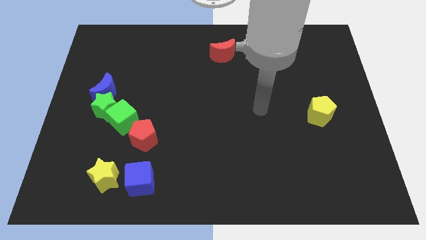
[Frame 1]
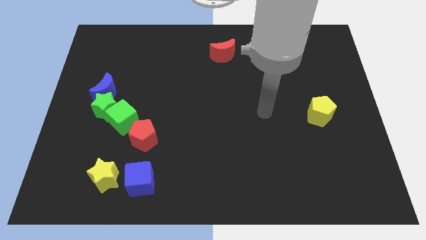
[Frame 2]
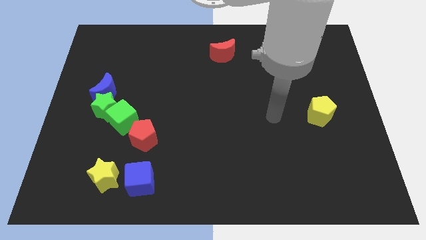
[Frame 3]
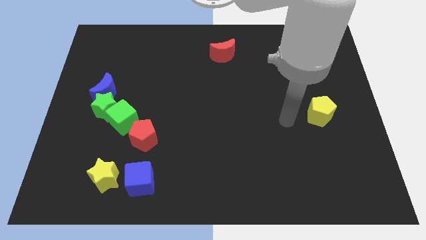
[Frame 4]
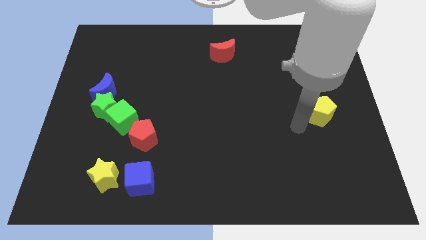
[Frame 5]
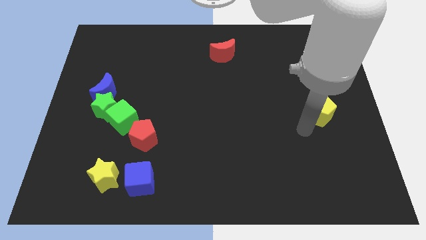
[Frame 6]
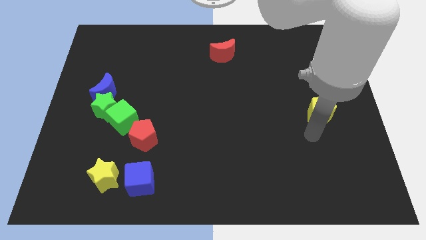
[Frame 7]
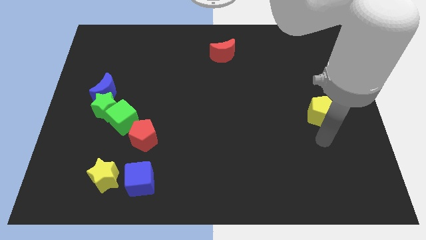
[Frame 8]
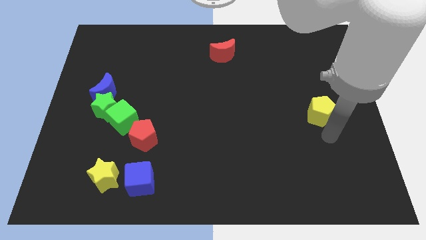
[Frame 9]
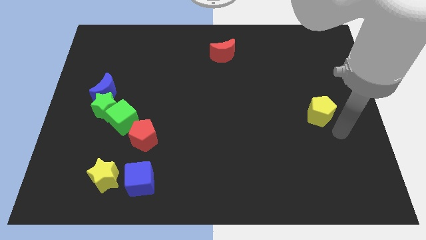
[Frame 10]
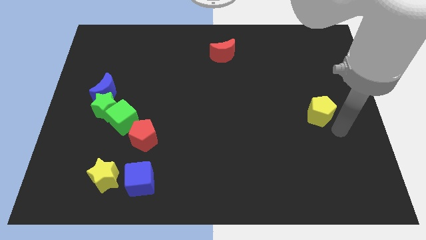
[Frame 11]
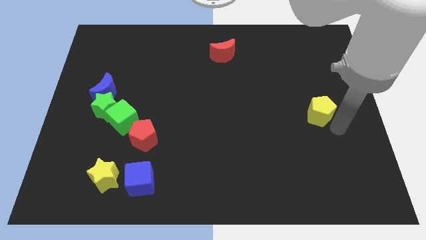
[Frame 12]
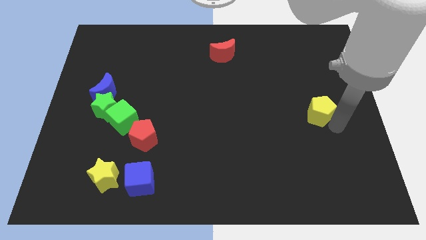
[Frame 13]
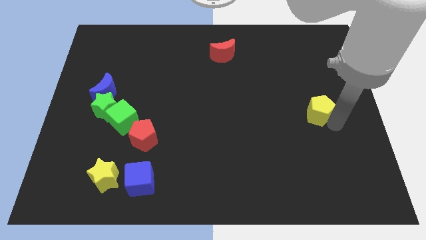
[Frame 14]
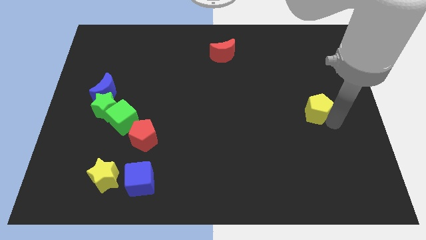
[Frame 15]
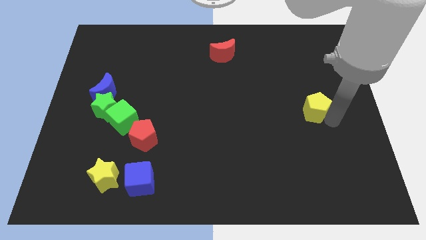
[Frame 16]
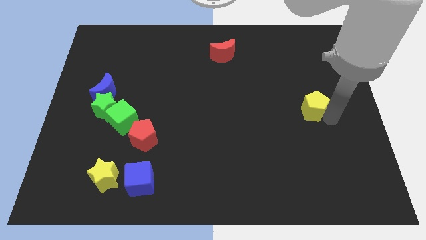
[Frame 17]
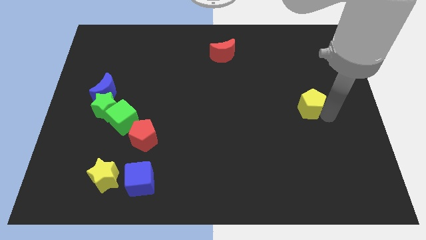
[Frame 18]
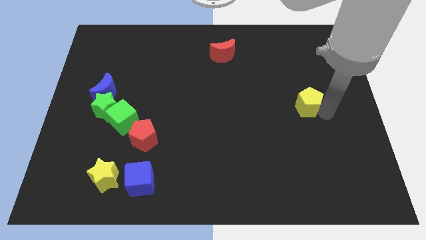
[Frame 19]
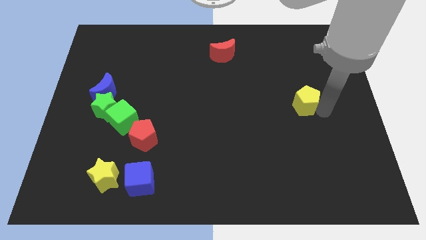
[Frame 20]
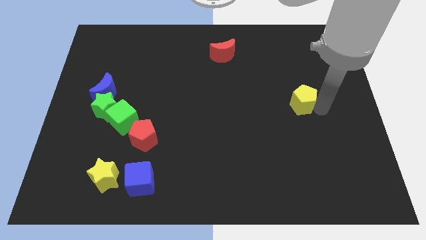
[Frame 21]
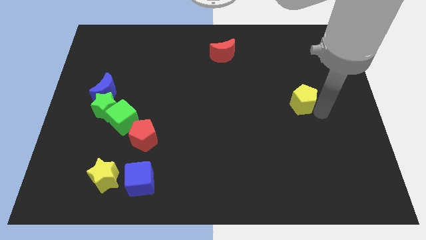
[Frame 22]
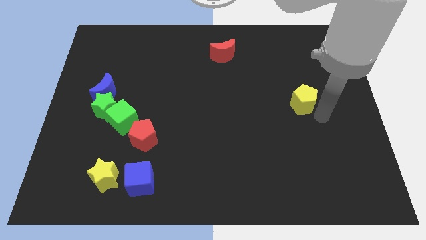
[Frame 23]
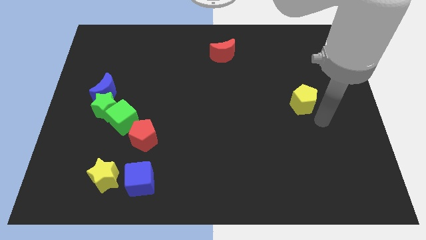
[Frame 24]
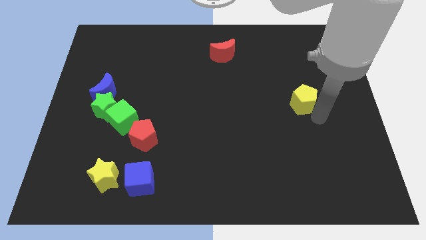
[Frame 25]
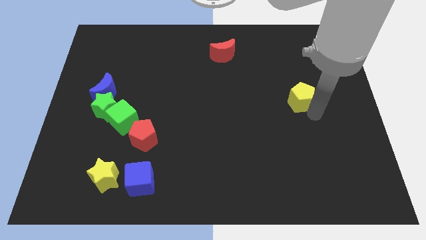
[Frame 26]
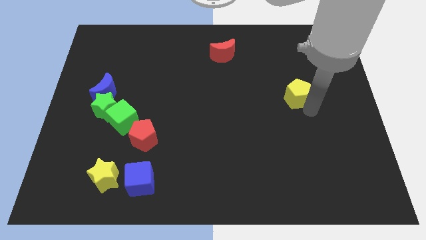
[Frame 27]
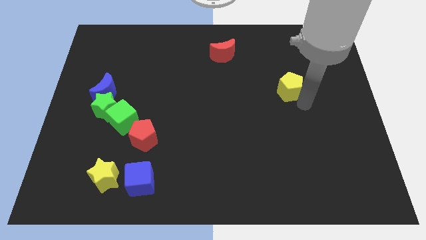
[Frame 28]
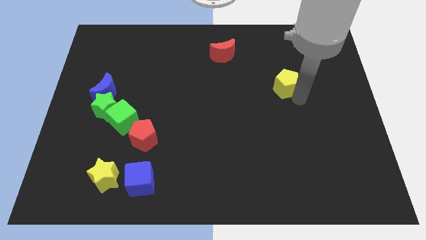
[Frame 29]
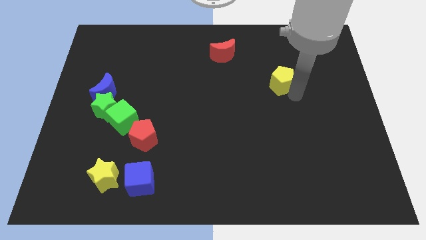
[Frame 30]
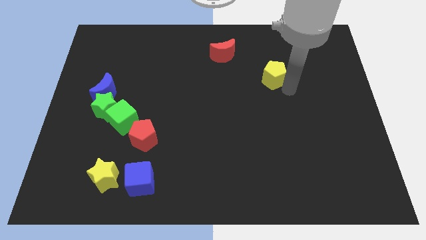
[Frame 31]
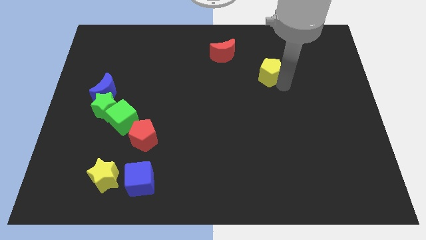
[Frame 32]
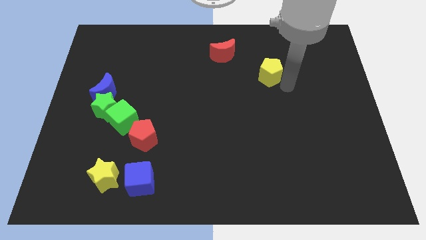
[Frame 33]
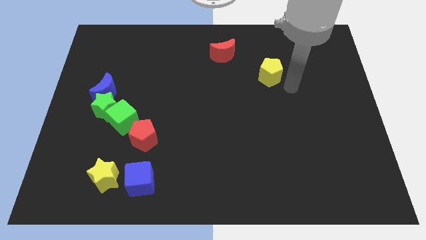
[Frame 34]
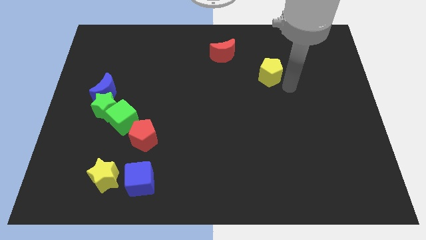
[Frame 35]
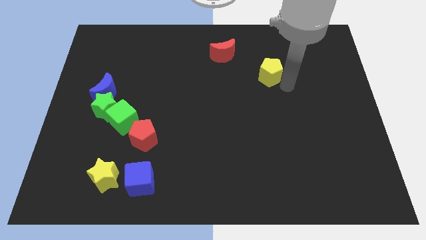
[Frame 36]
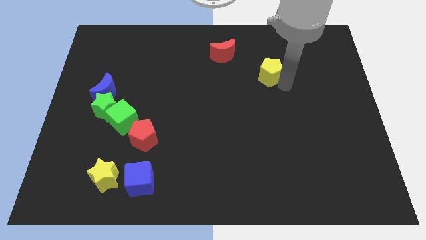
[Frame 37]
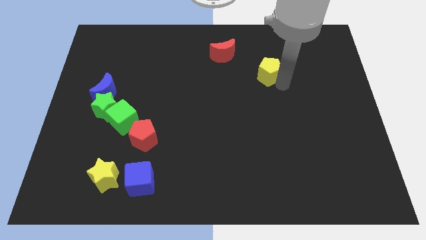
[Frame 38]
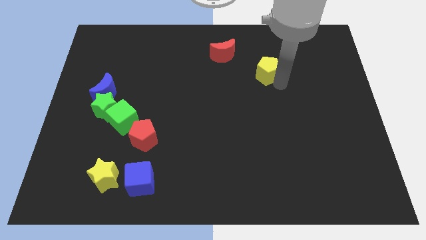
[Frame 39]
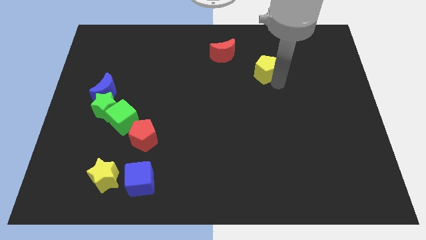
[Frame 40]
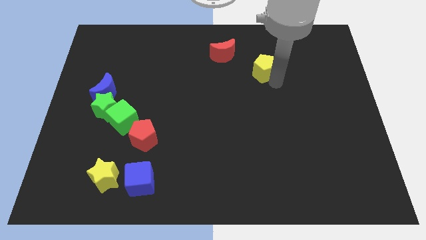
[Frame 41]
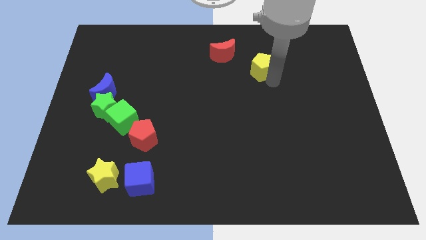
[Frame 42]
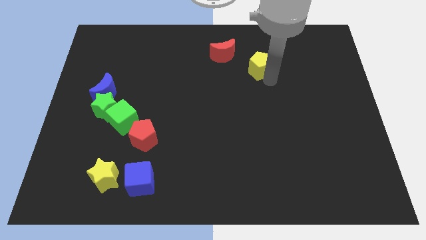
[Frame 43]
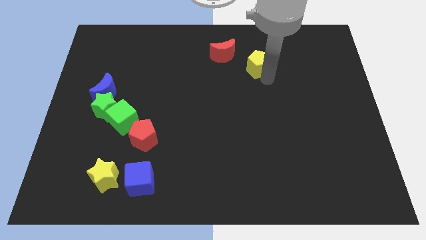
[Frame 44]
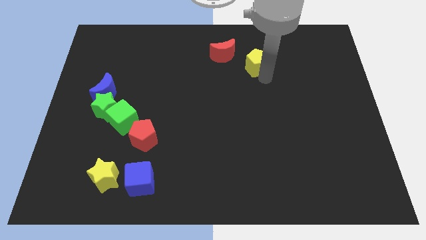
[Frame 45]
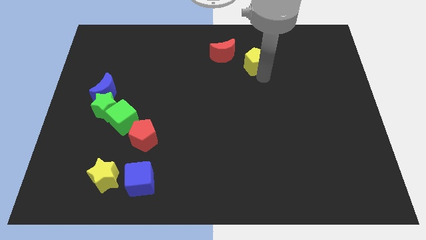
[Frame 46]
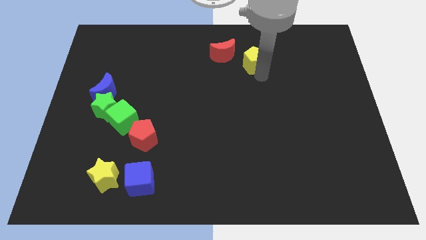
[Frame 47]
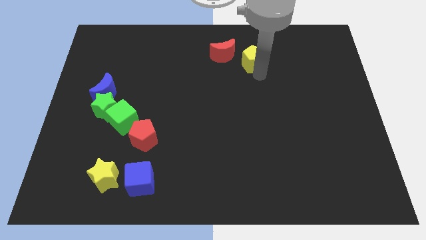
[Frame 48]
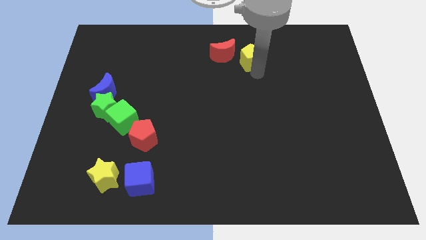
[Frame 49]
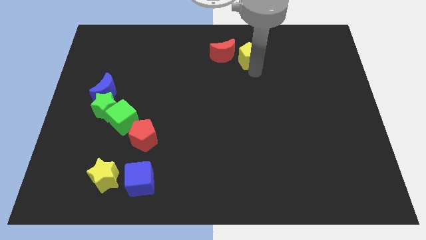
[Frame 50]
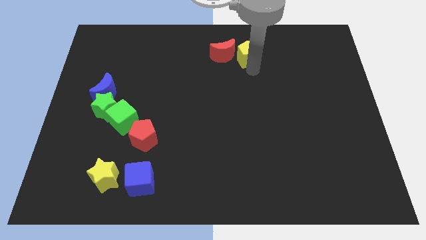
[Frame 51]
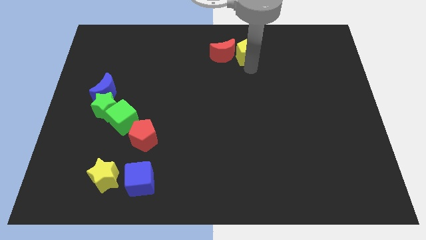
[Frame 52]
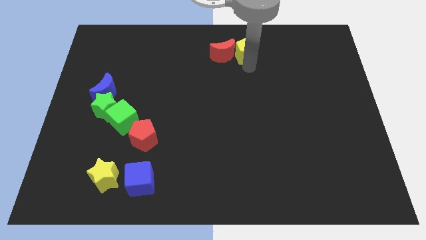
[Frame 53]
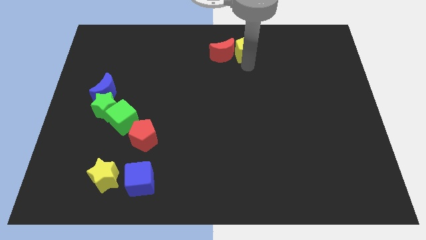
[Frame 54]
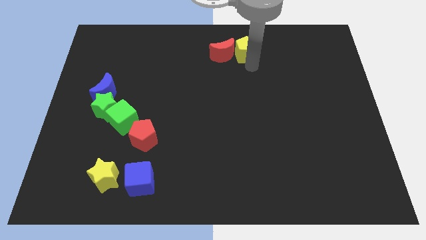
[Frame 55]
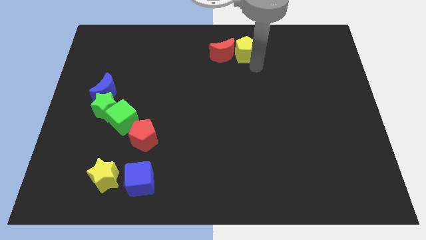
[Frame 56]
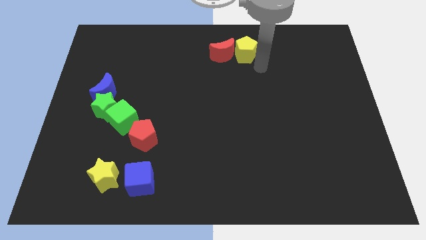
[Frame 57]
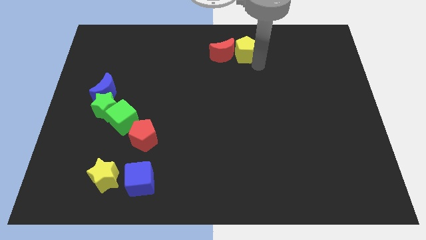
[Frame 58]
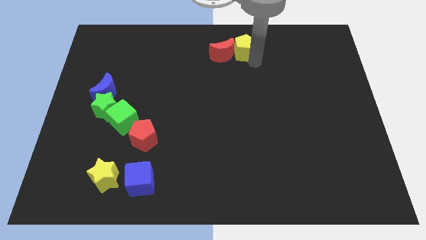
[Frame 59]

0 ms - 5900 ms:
put the yellow pentagon to the top side

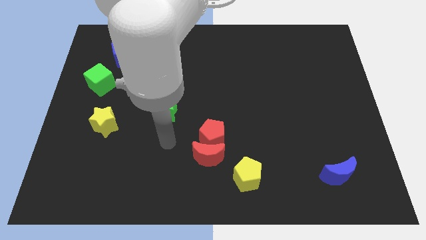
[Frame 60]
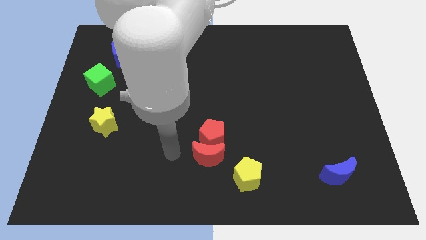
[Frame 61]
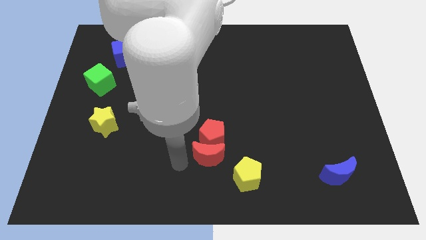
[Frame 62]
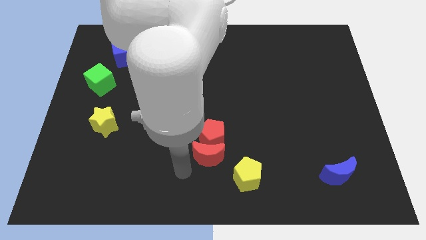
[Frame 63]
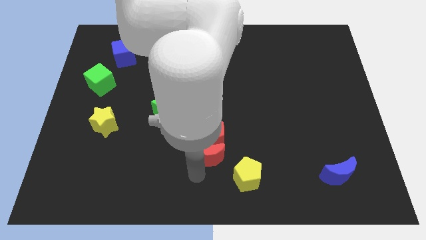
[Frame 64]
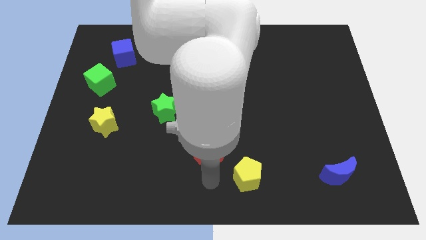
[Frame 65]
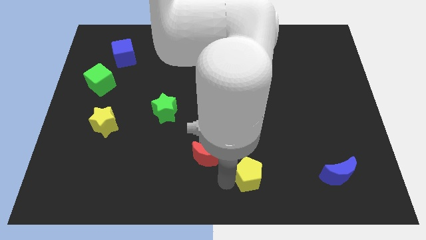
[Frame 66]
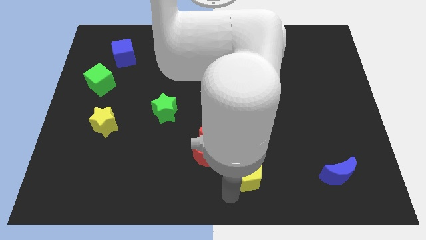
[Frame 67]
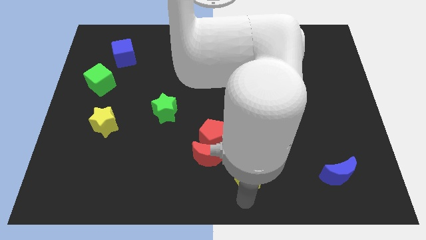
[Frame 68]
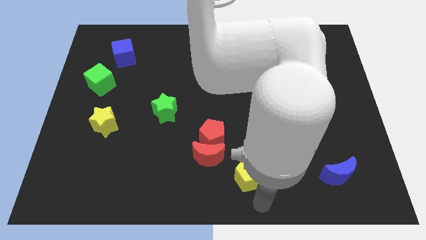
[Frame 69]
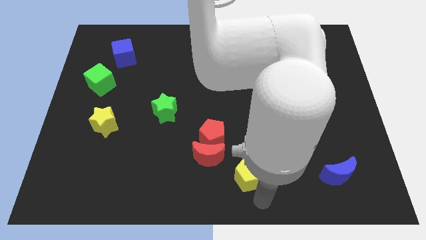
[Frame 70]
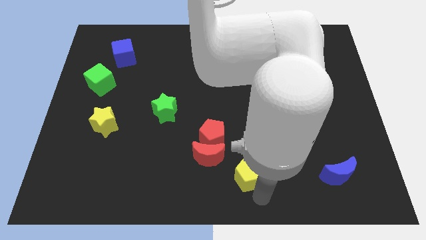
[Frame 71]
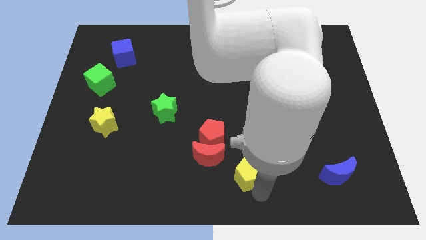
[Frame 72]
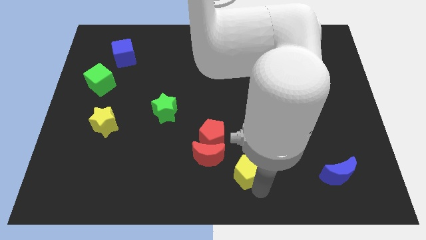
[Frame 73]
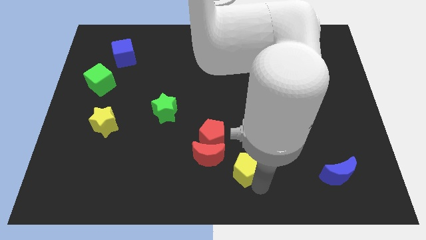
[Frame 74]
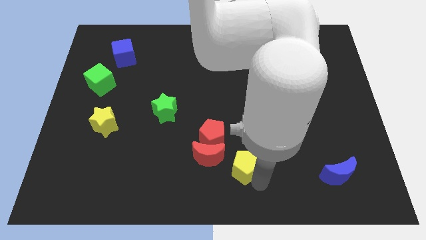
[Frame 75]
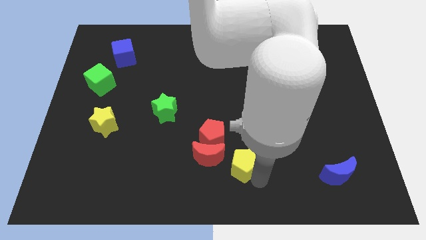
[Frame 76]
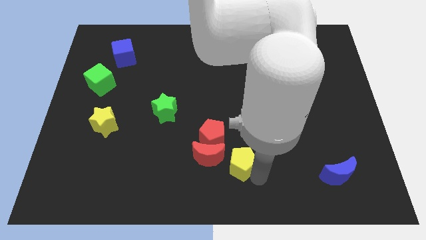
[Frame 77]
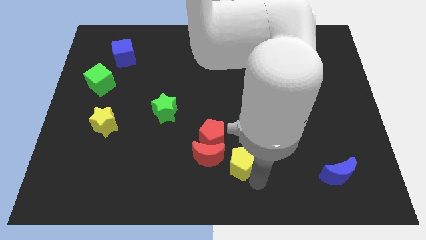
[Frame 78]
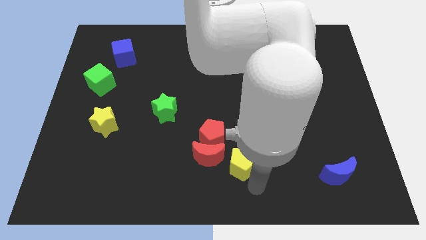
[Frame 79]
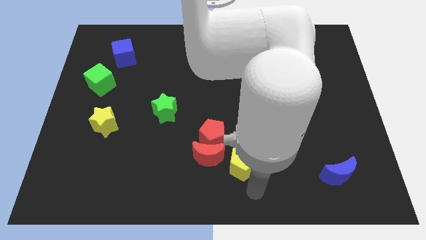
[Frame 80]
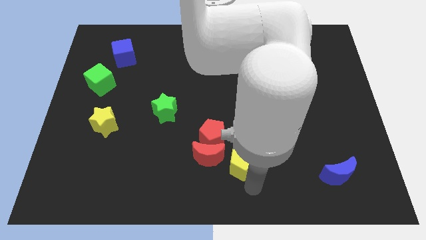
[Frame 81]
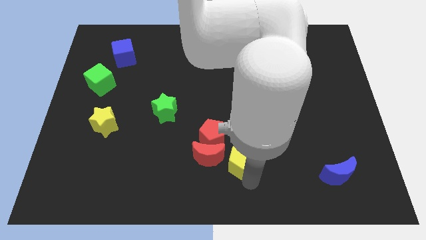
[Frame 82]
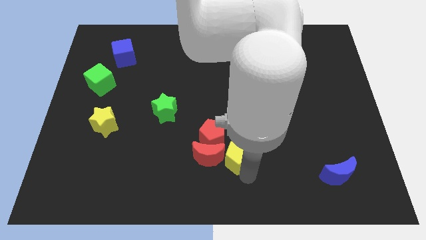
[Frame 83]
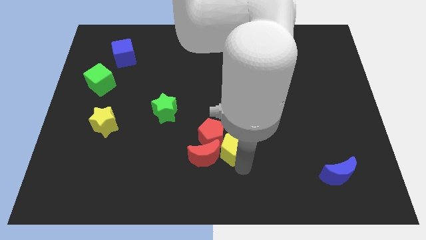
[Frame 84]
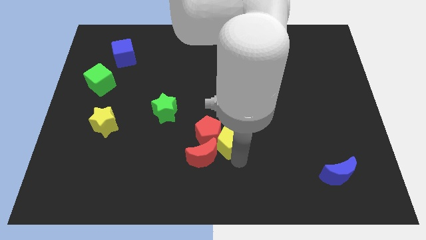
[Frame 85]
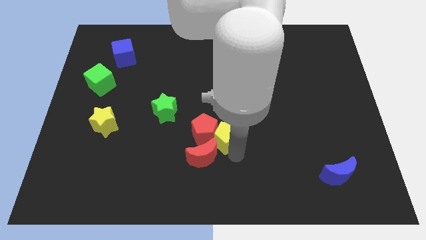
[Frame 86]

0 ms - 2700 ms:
slide the yellow pentagon to the middle
